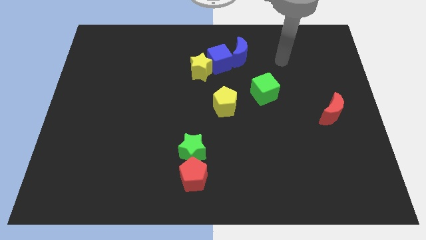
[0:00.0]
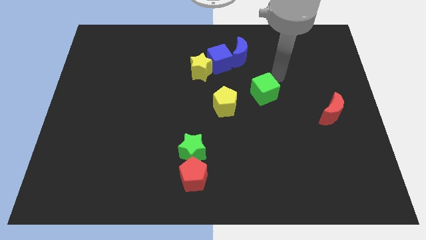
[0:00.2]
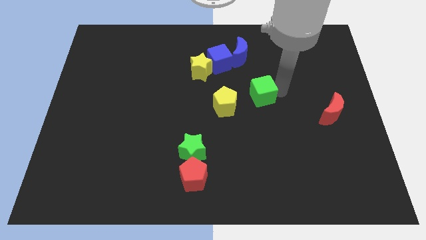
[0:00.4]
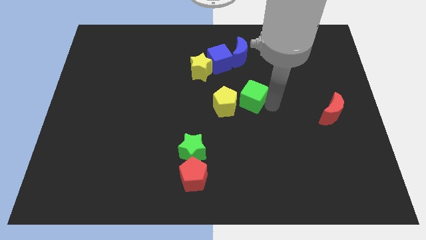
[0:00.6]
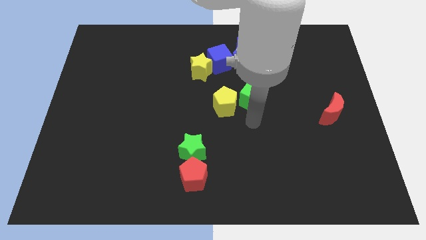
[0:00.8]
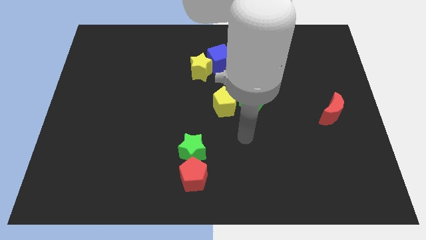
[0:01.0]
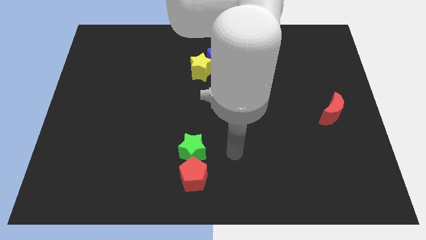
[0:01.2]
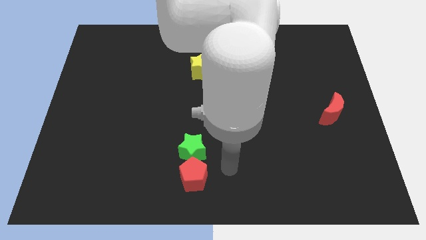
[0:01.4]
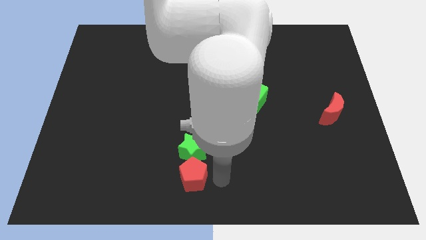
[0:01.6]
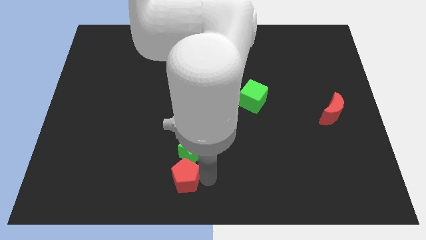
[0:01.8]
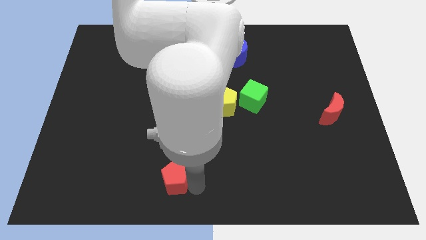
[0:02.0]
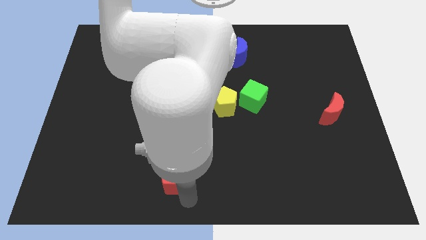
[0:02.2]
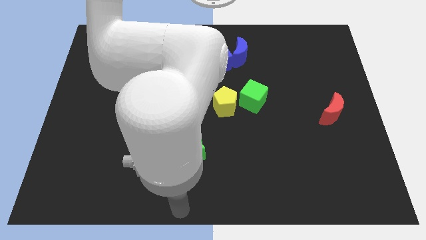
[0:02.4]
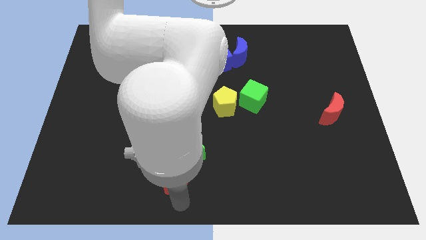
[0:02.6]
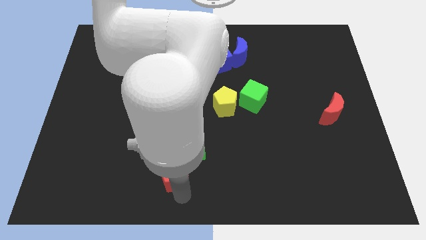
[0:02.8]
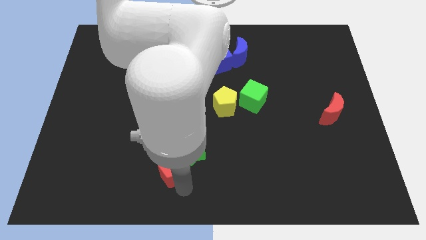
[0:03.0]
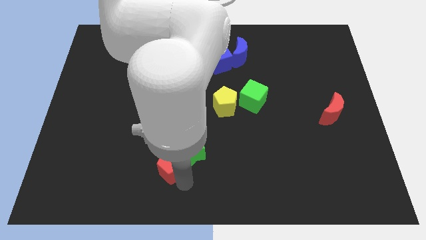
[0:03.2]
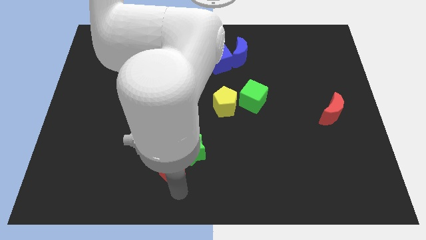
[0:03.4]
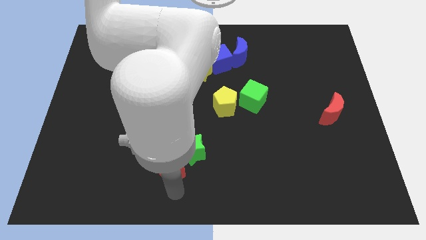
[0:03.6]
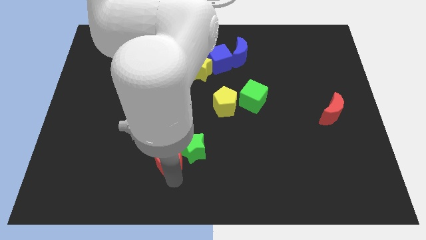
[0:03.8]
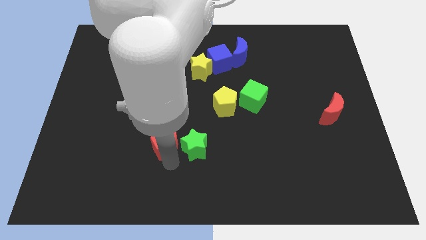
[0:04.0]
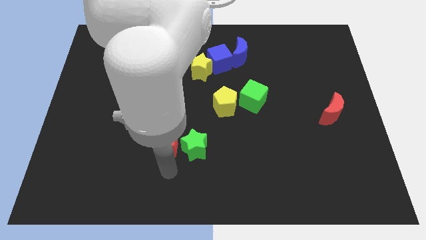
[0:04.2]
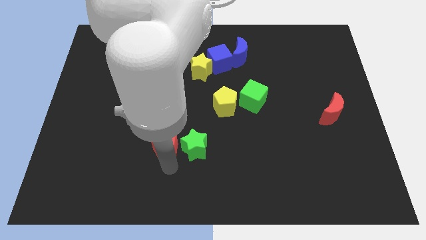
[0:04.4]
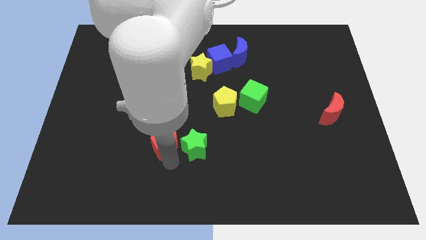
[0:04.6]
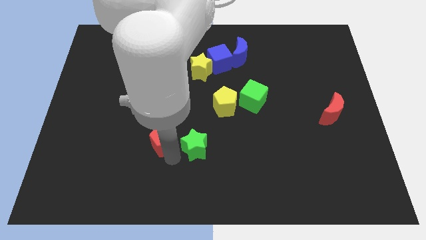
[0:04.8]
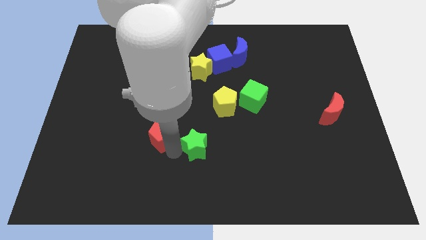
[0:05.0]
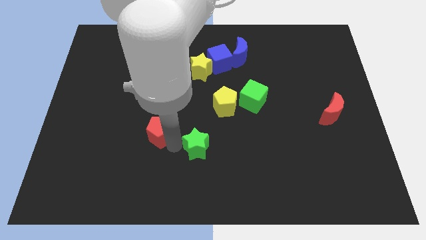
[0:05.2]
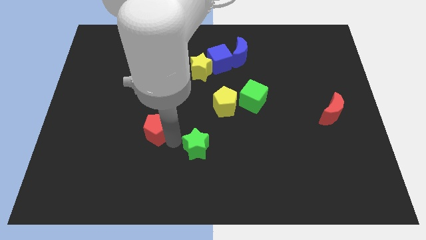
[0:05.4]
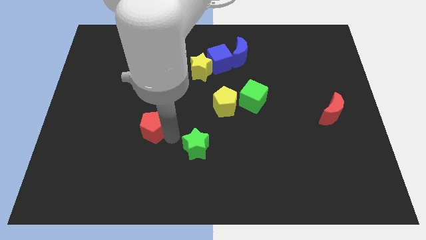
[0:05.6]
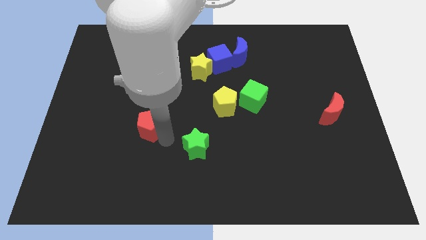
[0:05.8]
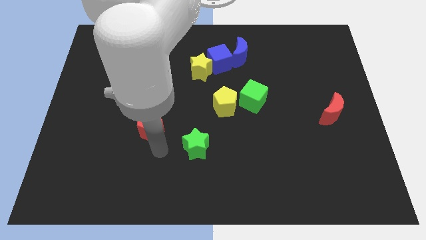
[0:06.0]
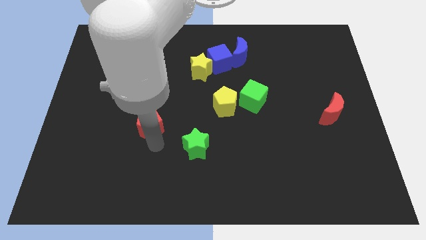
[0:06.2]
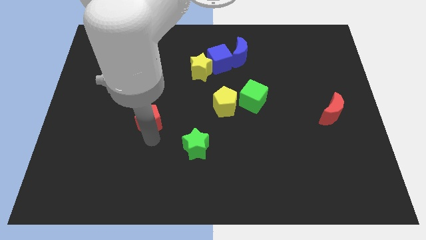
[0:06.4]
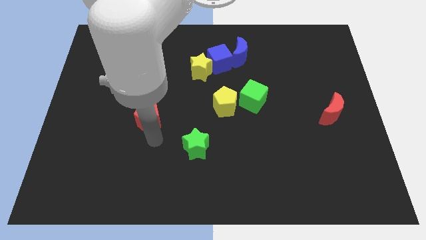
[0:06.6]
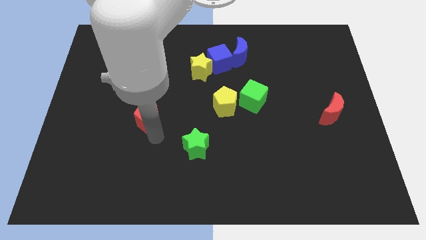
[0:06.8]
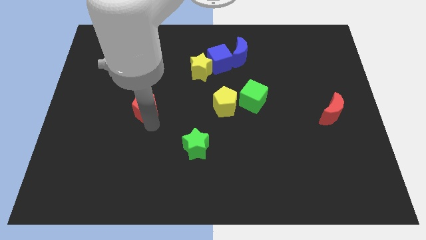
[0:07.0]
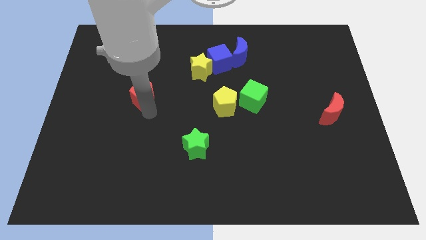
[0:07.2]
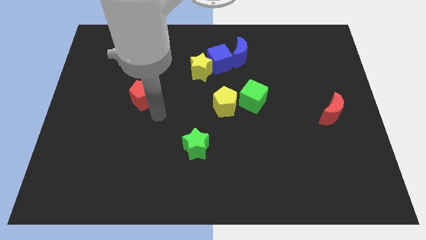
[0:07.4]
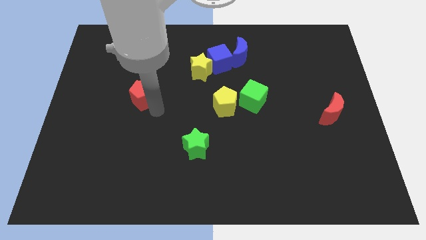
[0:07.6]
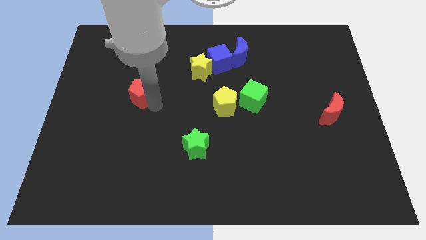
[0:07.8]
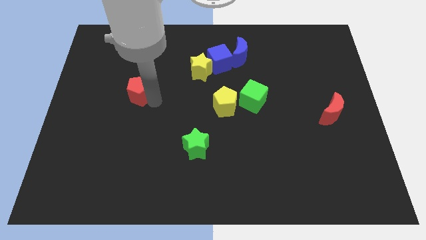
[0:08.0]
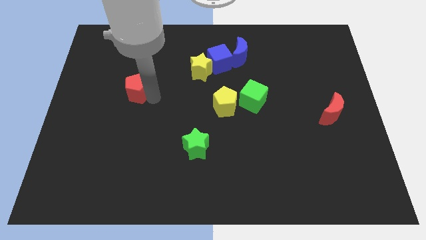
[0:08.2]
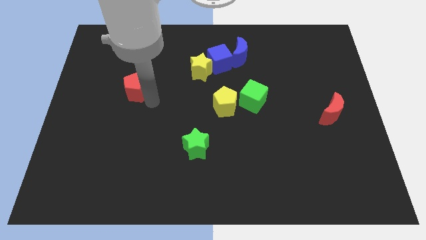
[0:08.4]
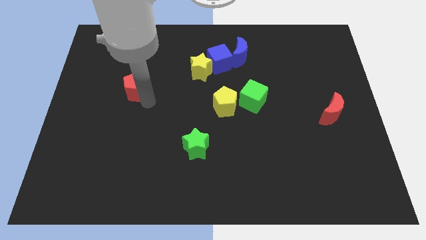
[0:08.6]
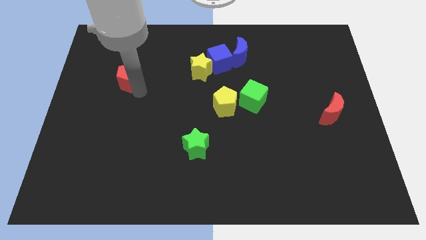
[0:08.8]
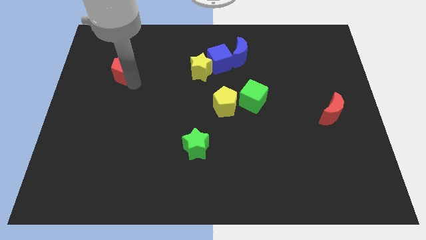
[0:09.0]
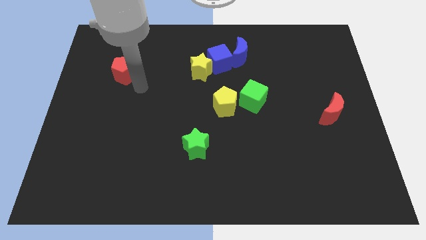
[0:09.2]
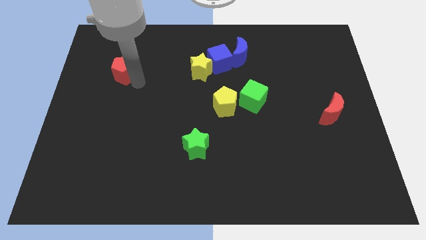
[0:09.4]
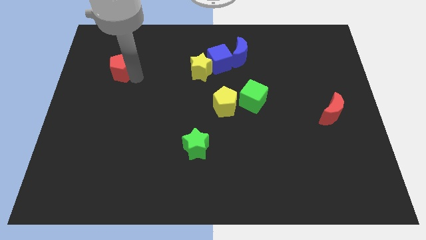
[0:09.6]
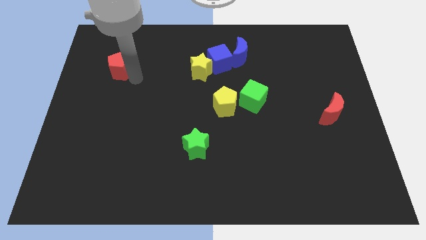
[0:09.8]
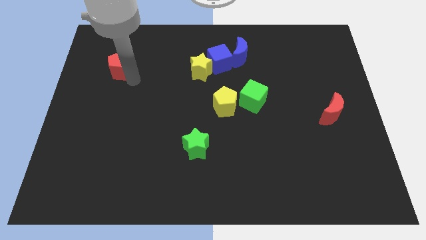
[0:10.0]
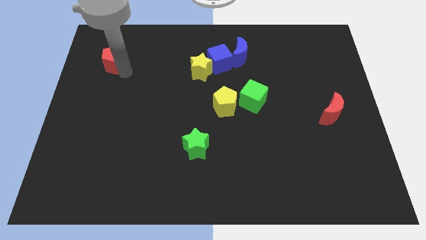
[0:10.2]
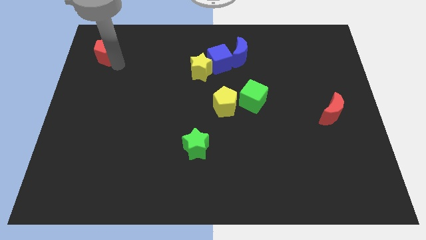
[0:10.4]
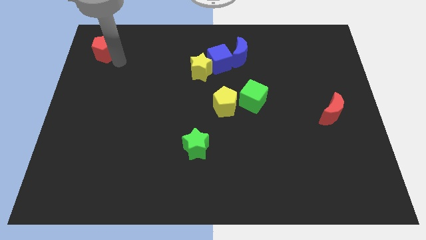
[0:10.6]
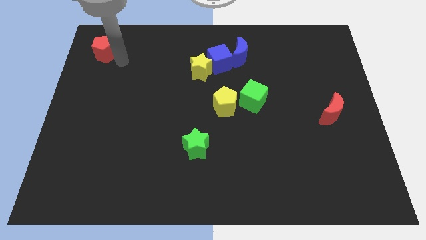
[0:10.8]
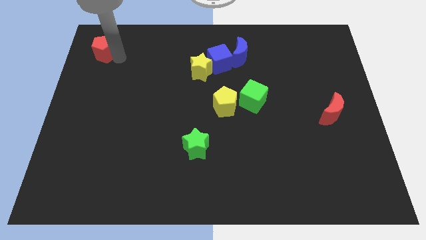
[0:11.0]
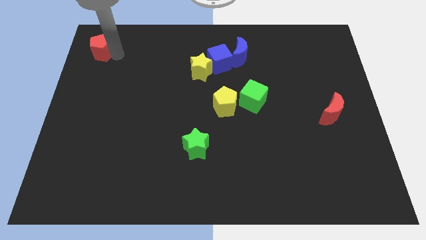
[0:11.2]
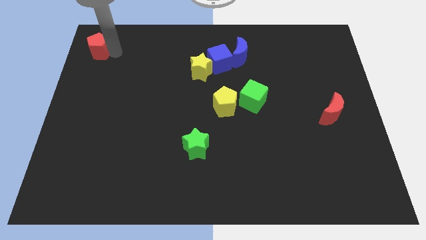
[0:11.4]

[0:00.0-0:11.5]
slide the red pentagon to the upper left corner
